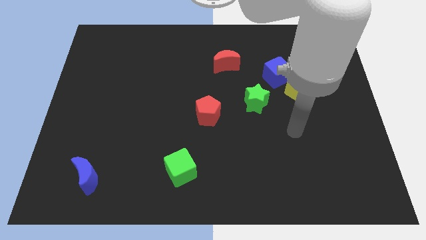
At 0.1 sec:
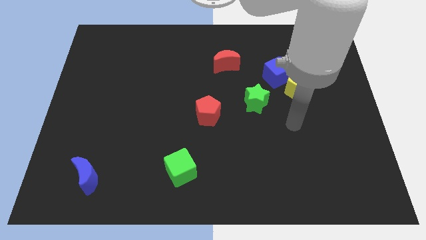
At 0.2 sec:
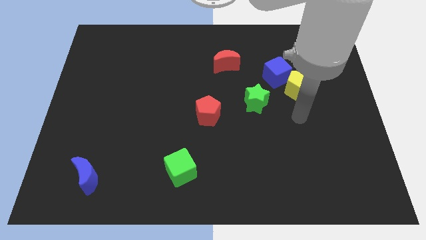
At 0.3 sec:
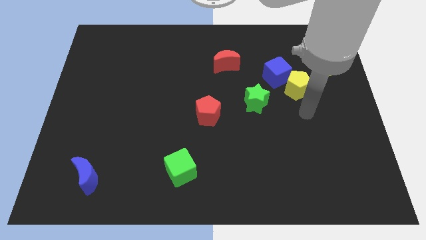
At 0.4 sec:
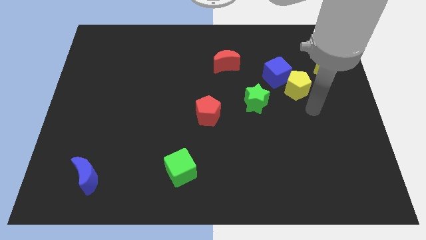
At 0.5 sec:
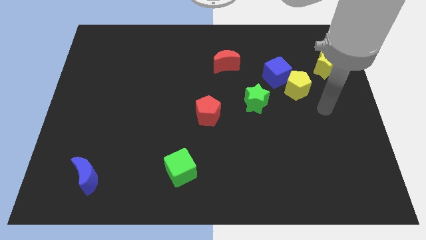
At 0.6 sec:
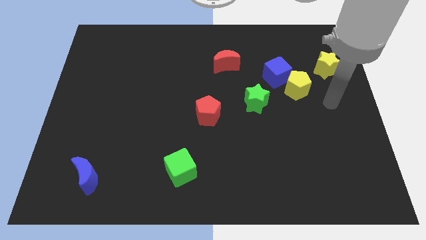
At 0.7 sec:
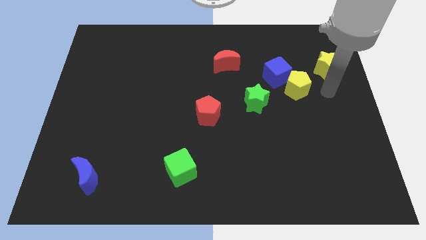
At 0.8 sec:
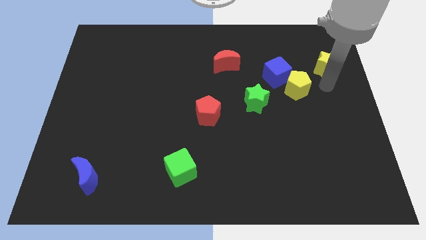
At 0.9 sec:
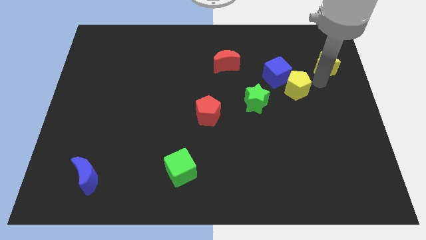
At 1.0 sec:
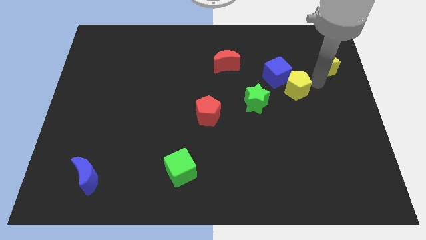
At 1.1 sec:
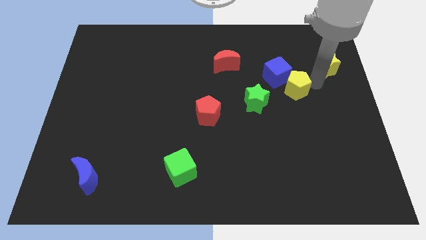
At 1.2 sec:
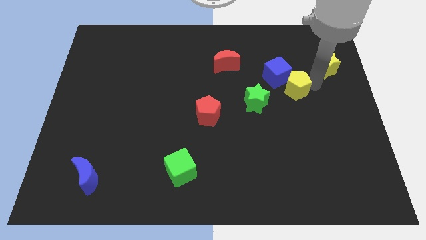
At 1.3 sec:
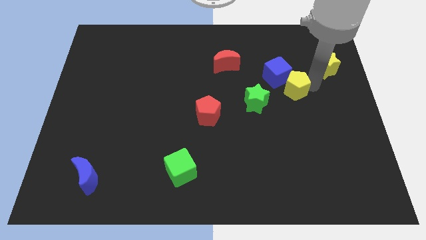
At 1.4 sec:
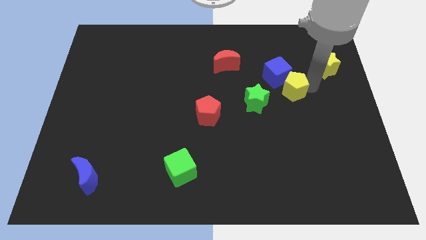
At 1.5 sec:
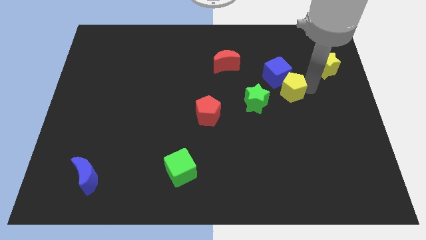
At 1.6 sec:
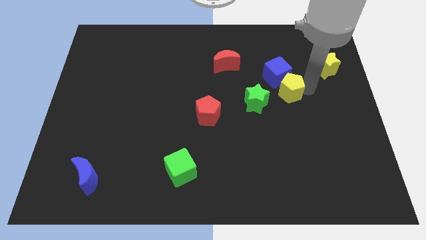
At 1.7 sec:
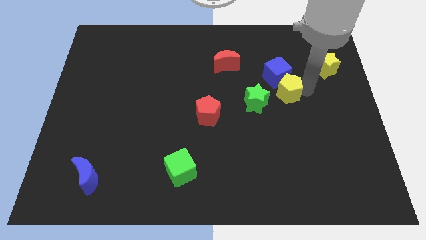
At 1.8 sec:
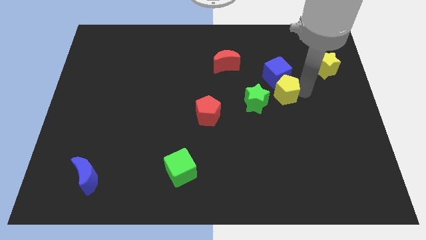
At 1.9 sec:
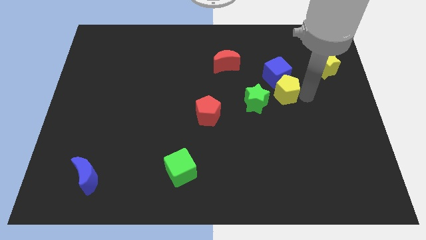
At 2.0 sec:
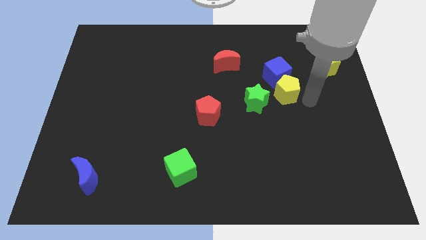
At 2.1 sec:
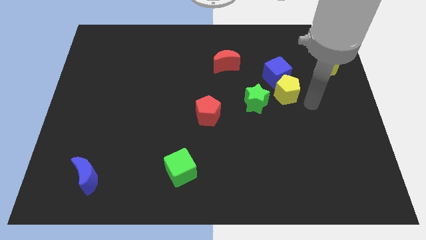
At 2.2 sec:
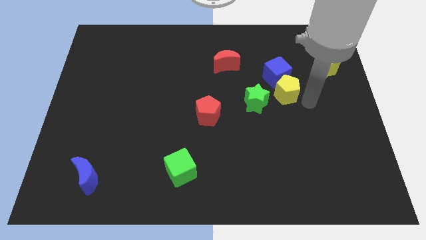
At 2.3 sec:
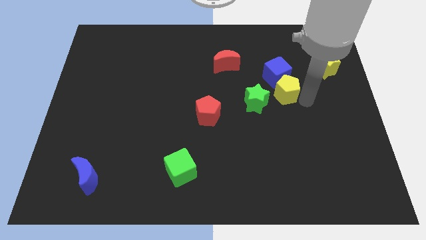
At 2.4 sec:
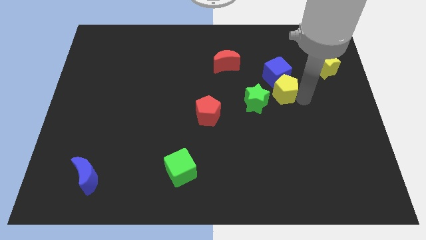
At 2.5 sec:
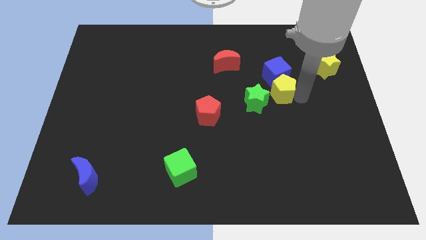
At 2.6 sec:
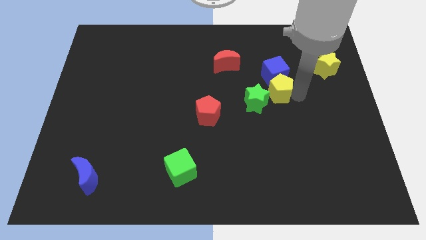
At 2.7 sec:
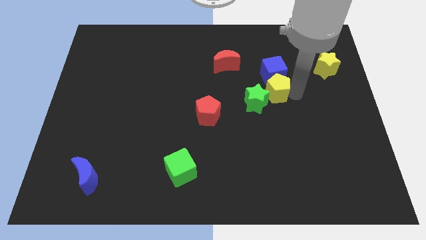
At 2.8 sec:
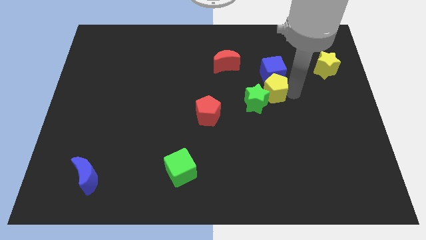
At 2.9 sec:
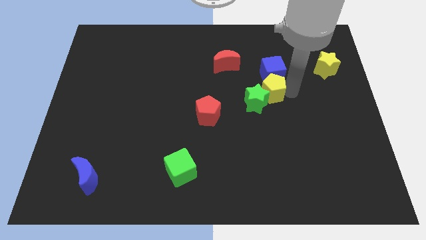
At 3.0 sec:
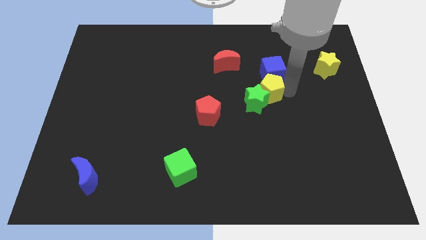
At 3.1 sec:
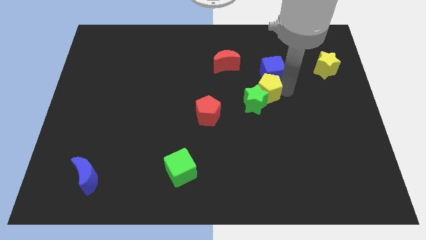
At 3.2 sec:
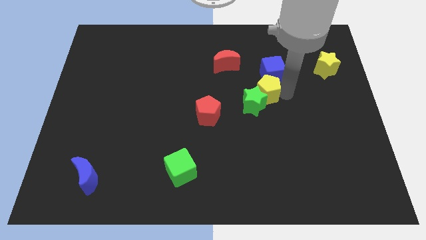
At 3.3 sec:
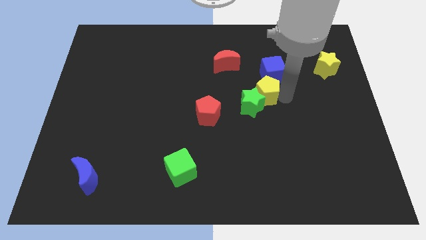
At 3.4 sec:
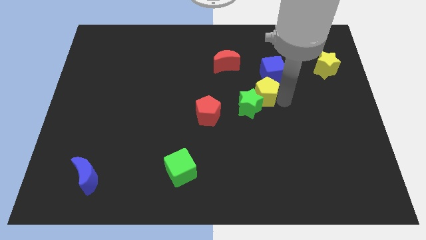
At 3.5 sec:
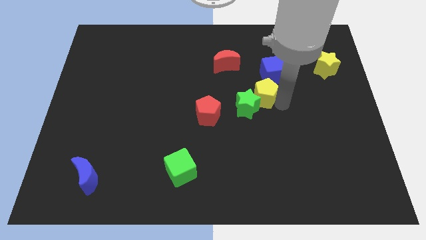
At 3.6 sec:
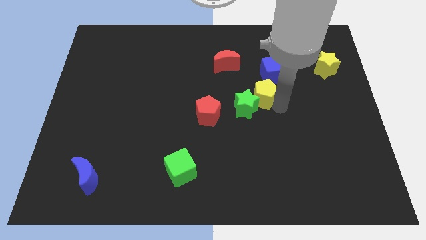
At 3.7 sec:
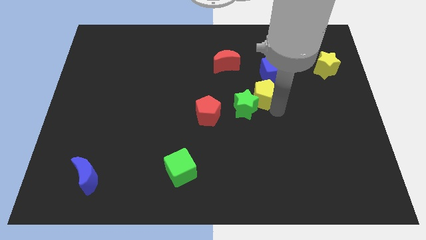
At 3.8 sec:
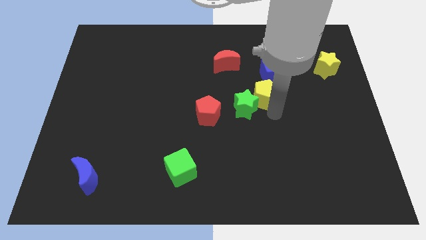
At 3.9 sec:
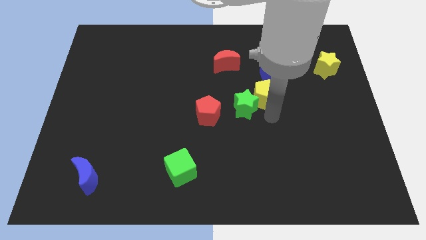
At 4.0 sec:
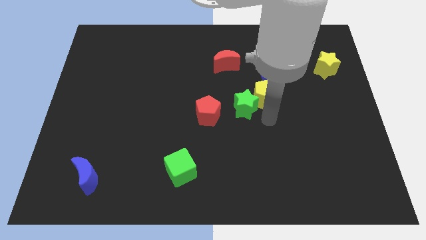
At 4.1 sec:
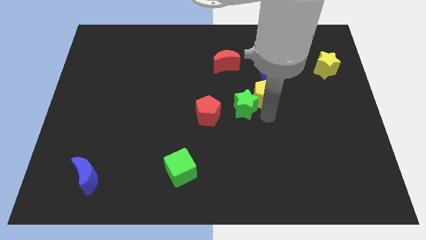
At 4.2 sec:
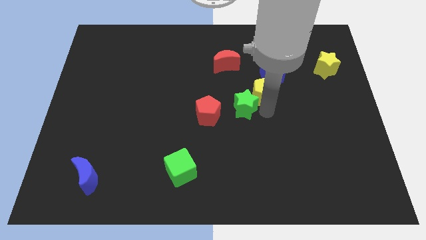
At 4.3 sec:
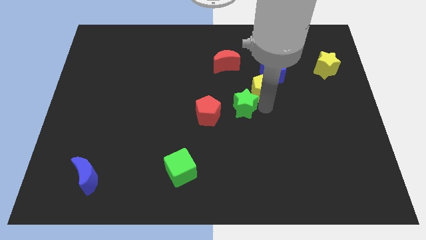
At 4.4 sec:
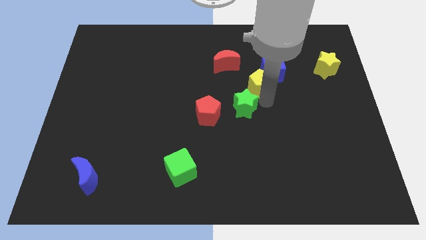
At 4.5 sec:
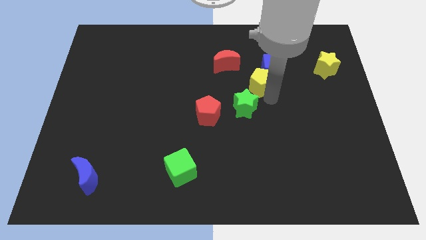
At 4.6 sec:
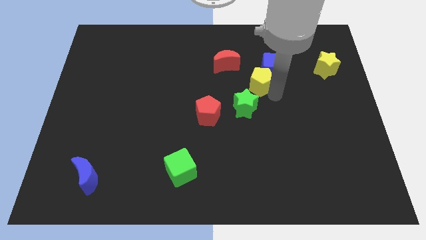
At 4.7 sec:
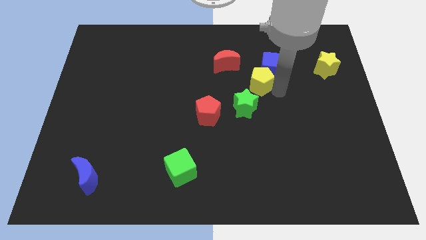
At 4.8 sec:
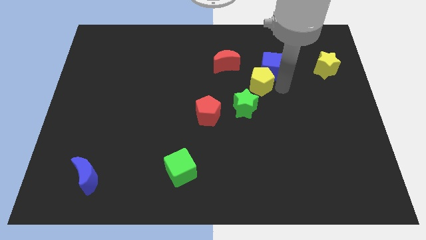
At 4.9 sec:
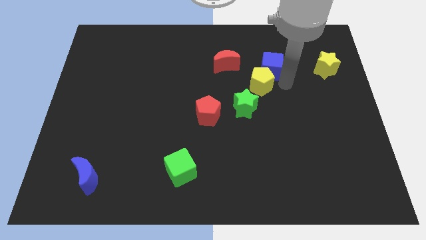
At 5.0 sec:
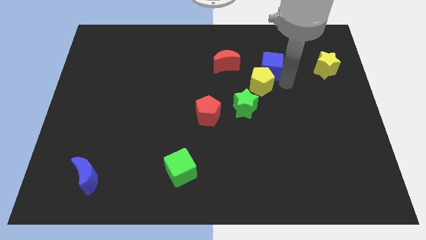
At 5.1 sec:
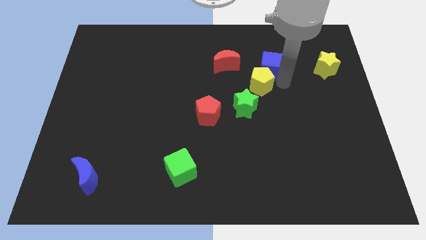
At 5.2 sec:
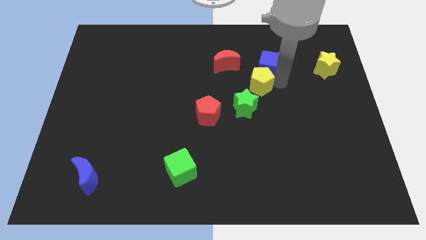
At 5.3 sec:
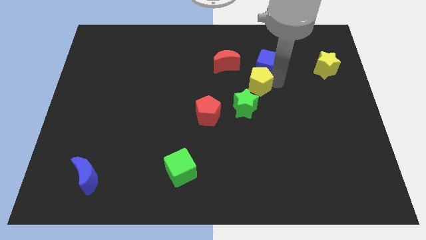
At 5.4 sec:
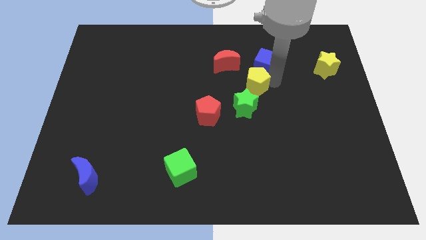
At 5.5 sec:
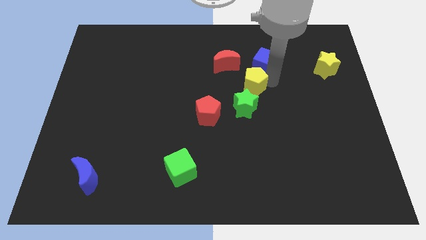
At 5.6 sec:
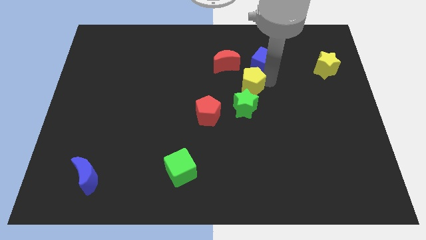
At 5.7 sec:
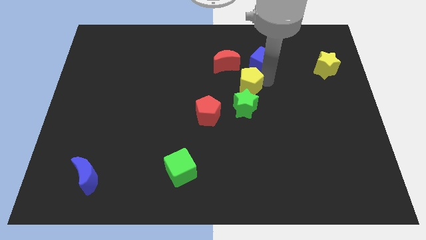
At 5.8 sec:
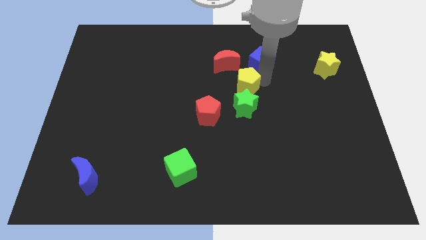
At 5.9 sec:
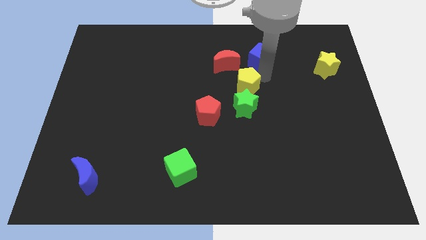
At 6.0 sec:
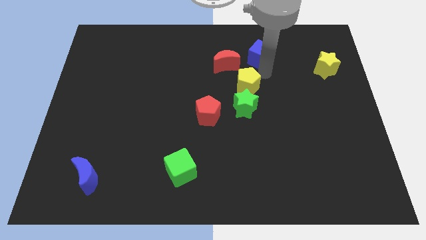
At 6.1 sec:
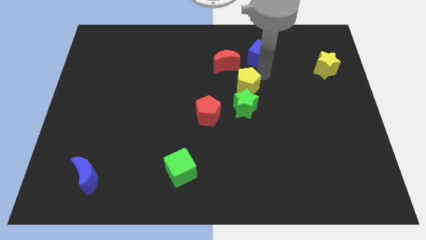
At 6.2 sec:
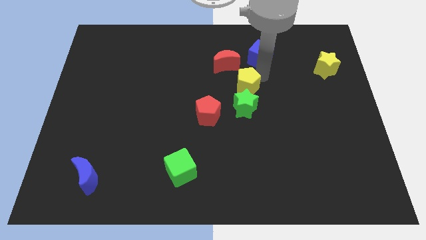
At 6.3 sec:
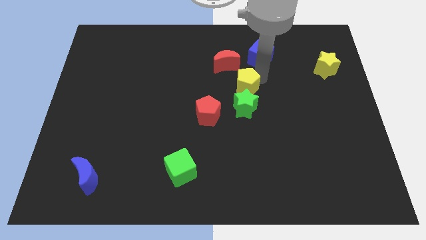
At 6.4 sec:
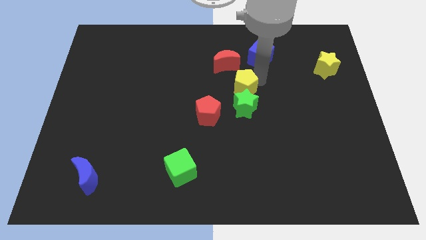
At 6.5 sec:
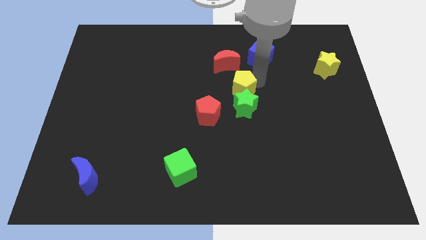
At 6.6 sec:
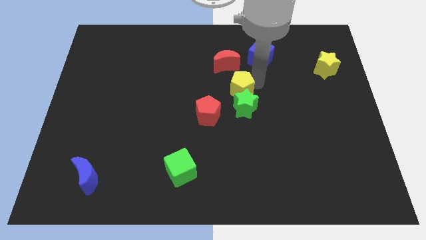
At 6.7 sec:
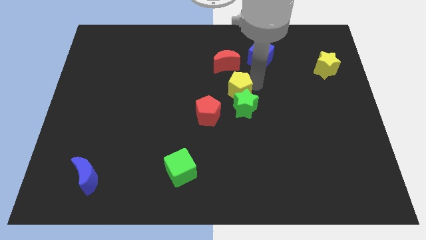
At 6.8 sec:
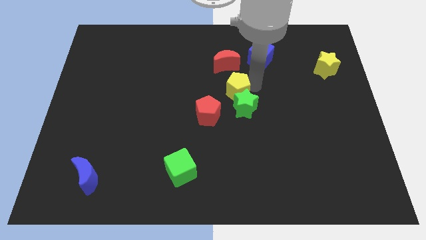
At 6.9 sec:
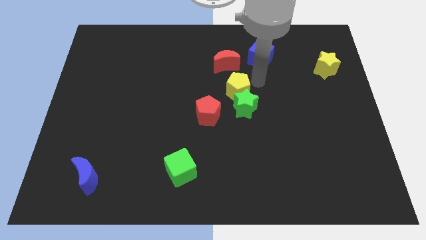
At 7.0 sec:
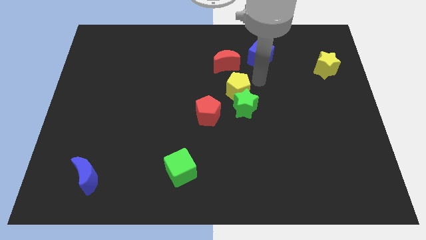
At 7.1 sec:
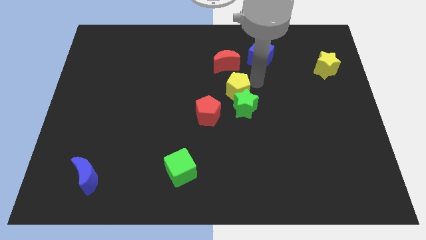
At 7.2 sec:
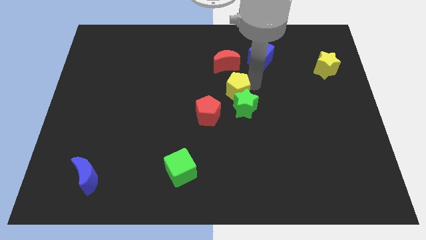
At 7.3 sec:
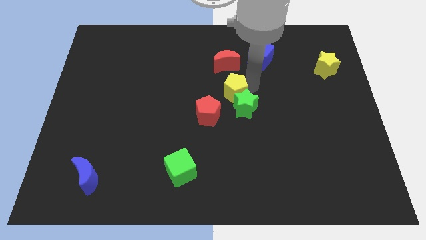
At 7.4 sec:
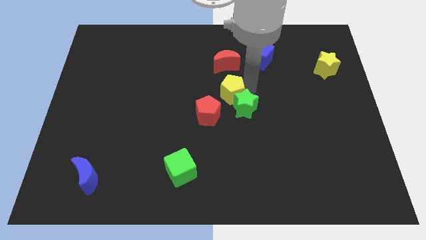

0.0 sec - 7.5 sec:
put the yellow pentagon just left of the green star

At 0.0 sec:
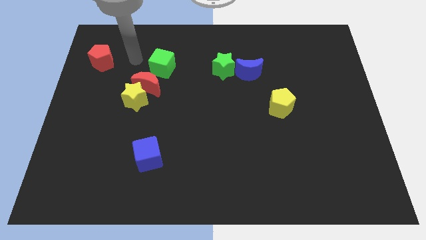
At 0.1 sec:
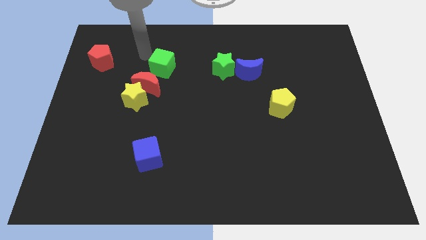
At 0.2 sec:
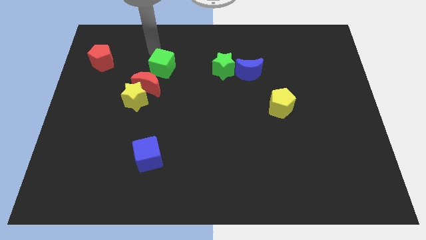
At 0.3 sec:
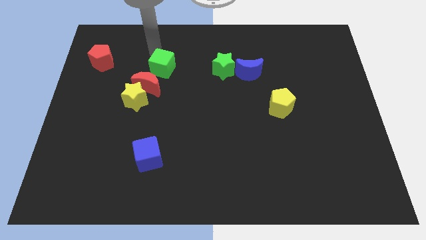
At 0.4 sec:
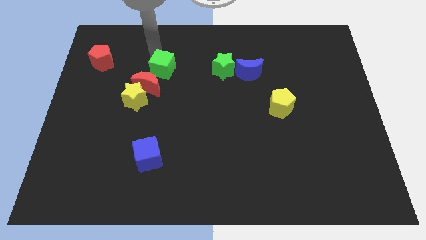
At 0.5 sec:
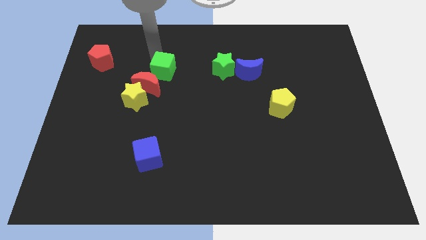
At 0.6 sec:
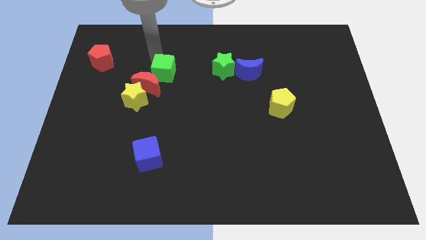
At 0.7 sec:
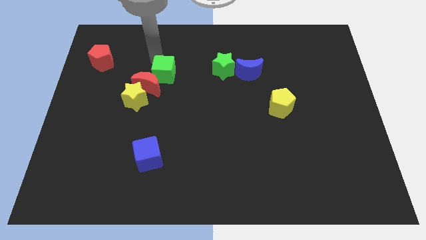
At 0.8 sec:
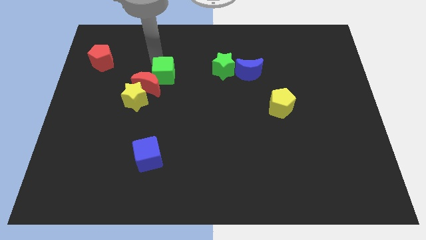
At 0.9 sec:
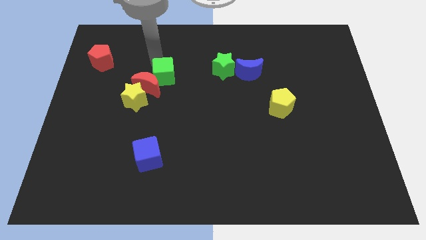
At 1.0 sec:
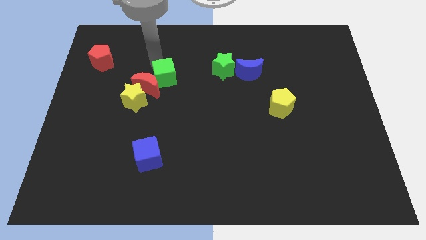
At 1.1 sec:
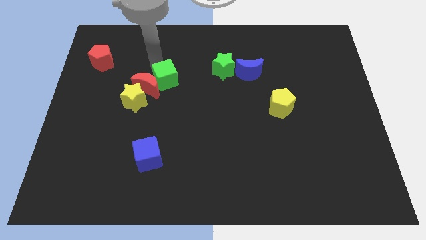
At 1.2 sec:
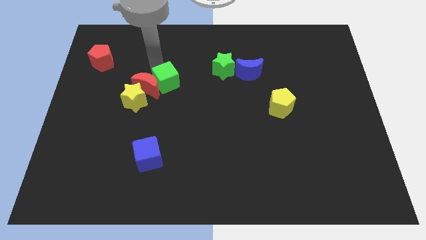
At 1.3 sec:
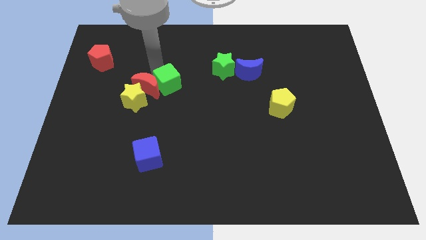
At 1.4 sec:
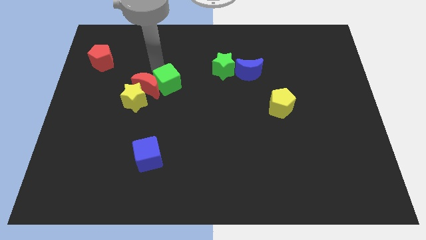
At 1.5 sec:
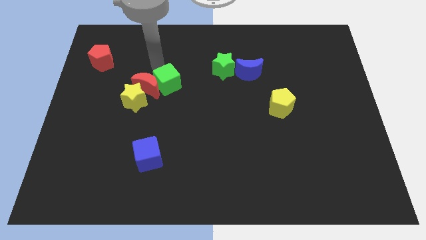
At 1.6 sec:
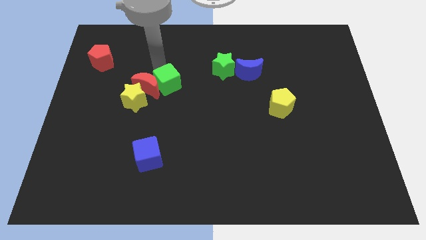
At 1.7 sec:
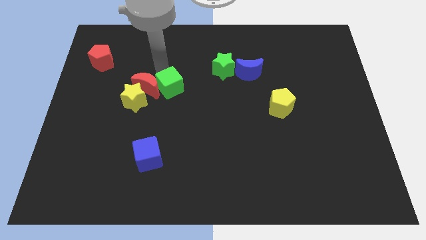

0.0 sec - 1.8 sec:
push the green cube right of the yellow star
